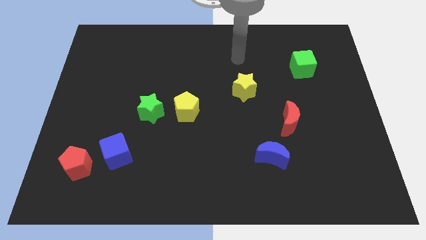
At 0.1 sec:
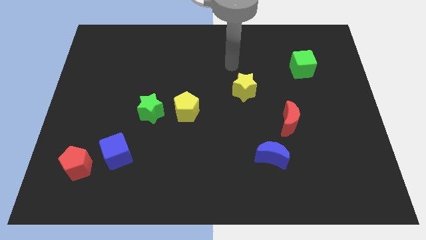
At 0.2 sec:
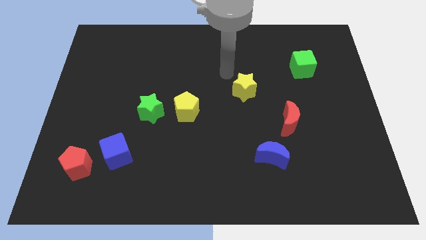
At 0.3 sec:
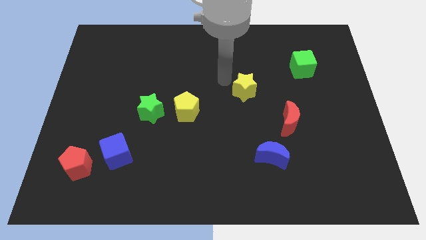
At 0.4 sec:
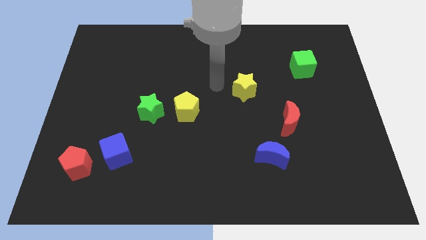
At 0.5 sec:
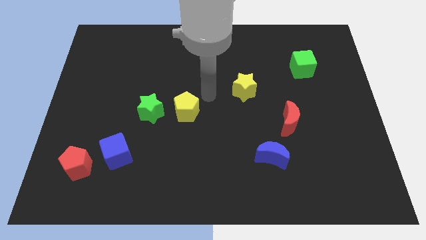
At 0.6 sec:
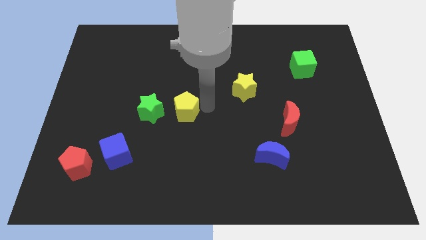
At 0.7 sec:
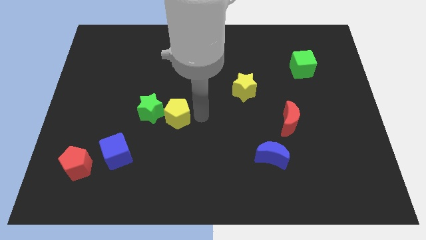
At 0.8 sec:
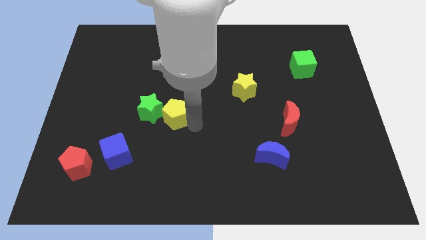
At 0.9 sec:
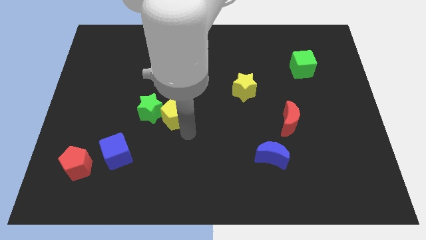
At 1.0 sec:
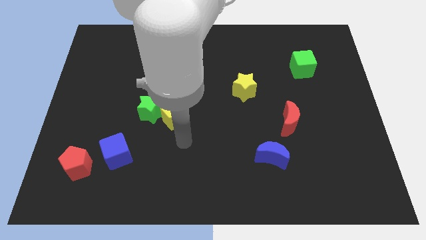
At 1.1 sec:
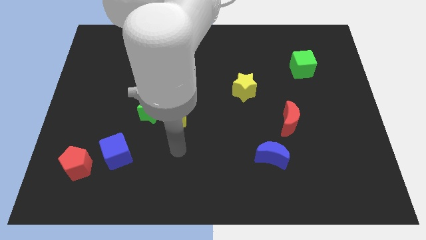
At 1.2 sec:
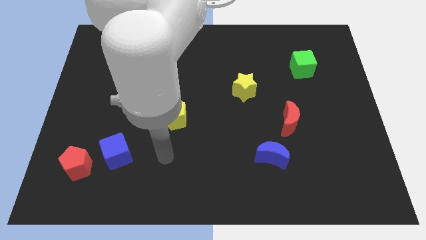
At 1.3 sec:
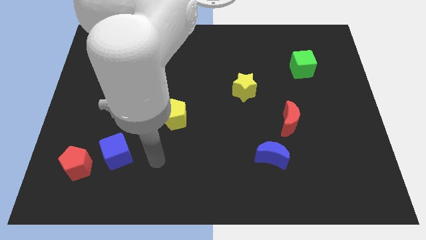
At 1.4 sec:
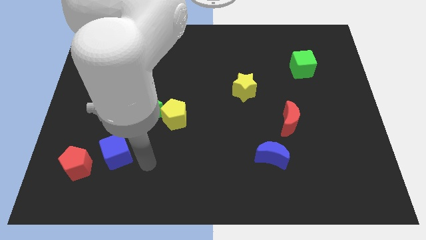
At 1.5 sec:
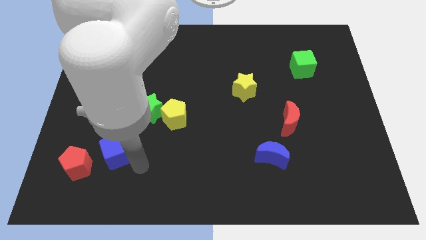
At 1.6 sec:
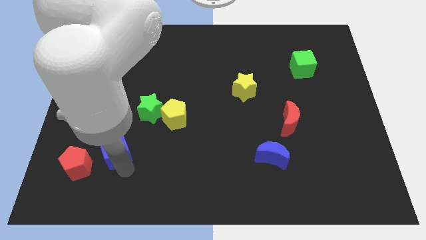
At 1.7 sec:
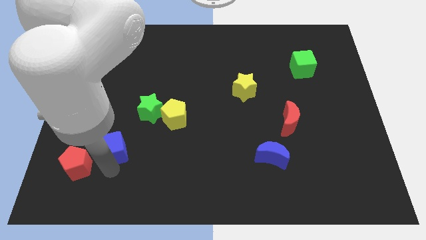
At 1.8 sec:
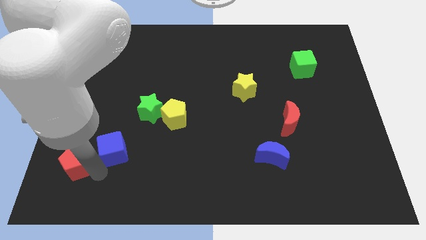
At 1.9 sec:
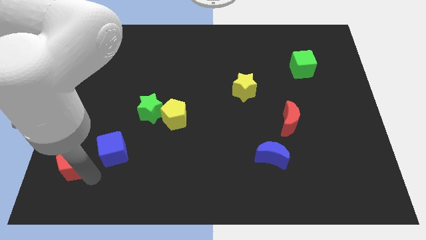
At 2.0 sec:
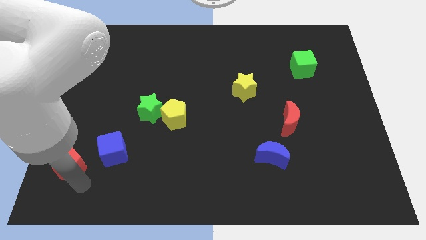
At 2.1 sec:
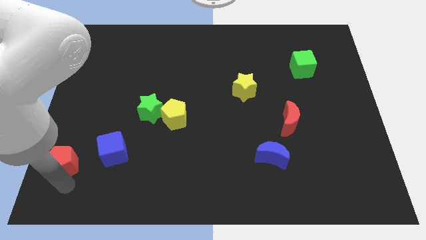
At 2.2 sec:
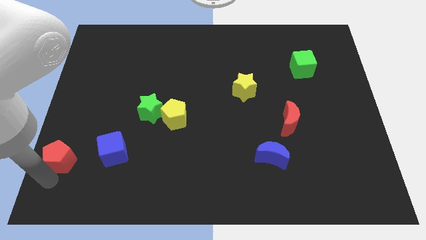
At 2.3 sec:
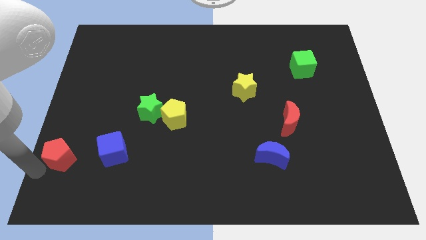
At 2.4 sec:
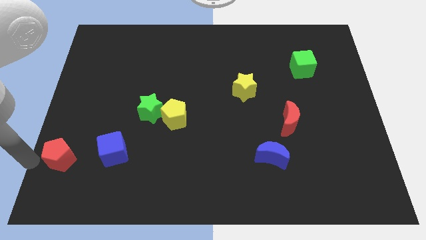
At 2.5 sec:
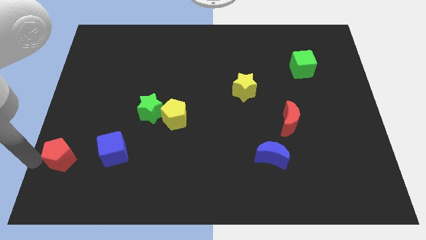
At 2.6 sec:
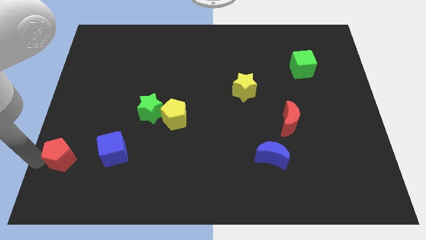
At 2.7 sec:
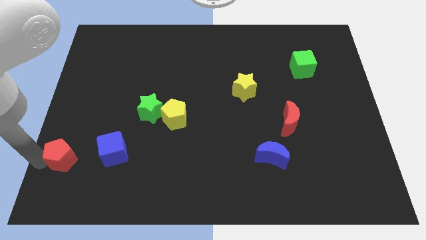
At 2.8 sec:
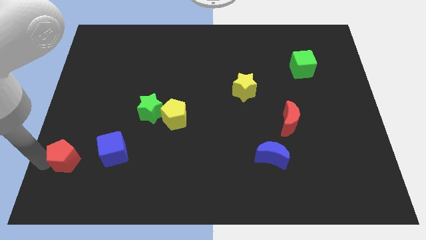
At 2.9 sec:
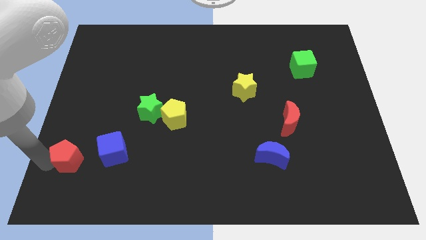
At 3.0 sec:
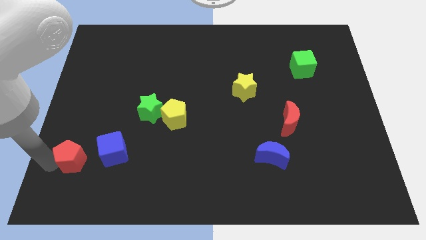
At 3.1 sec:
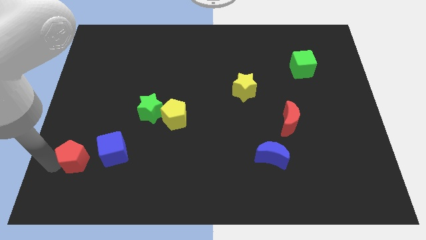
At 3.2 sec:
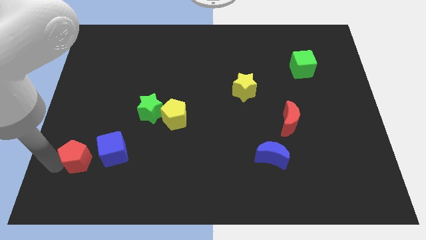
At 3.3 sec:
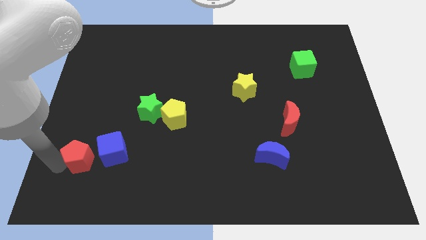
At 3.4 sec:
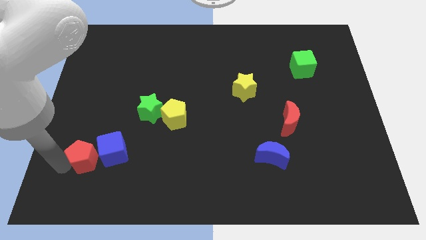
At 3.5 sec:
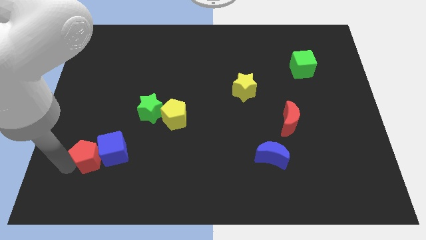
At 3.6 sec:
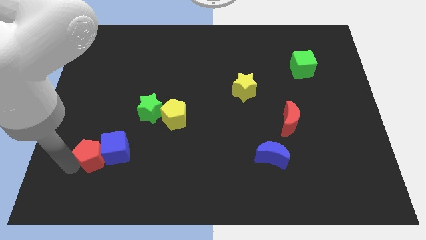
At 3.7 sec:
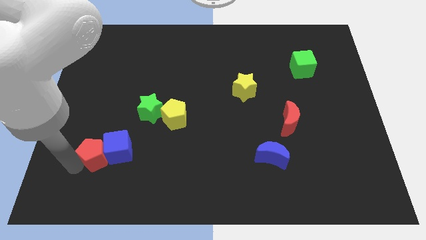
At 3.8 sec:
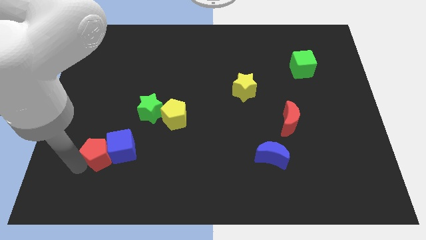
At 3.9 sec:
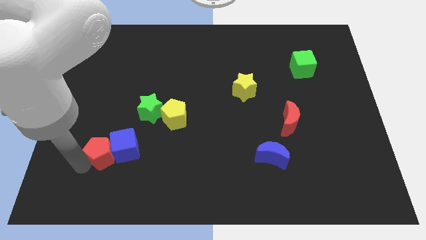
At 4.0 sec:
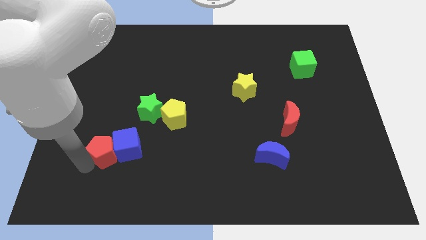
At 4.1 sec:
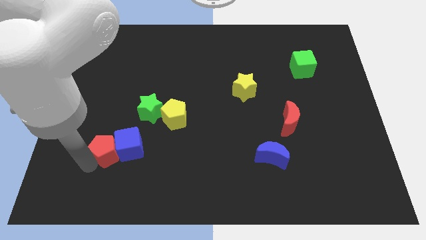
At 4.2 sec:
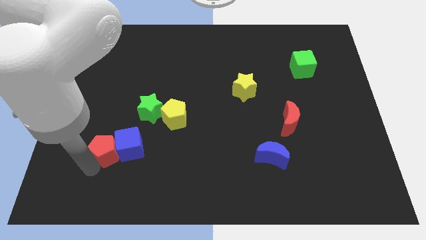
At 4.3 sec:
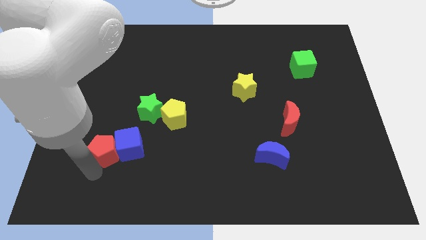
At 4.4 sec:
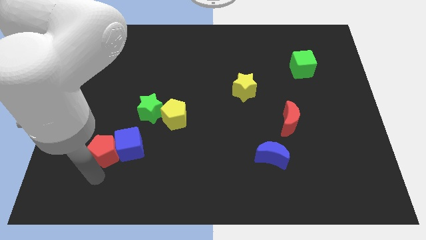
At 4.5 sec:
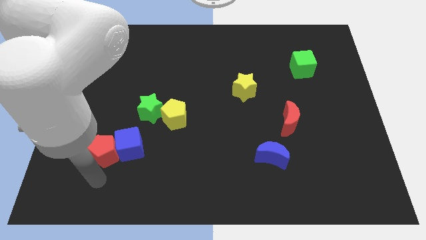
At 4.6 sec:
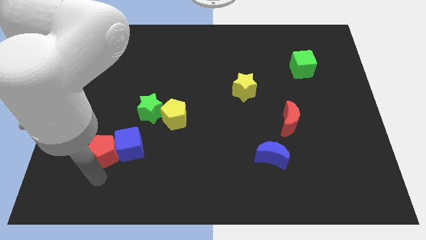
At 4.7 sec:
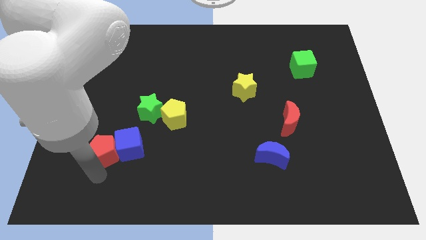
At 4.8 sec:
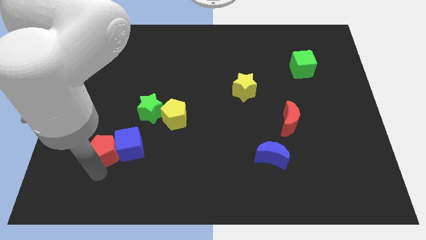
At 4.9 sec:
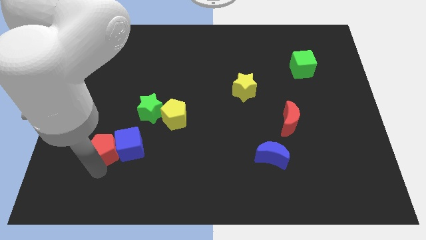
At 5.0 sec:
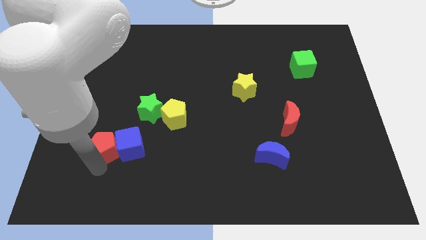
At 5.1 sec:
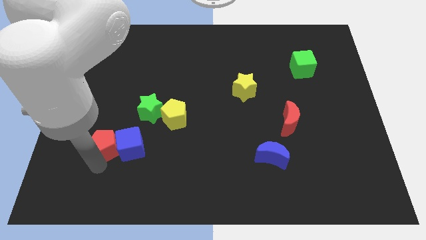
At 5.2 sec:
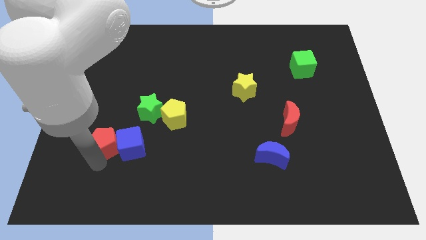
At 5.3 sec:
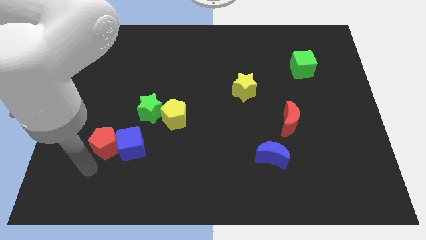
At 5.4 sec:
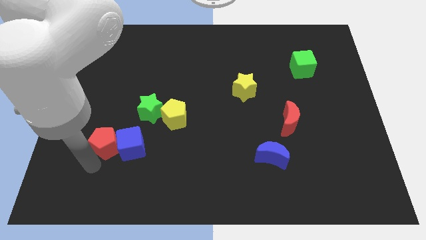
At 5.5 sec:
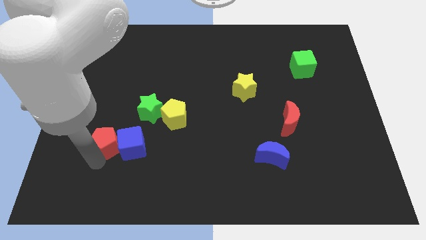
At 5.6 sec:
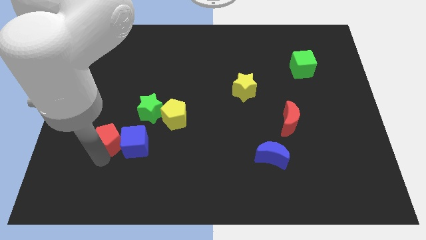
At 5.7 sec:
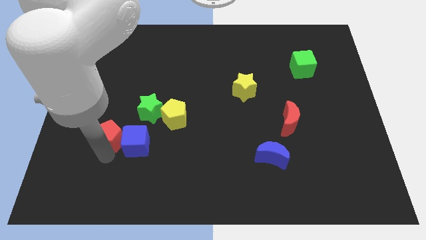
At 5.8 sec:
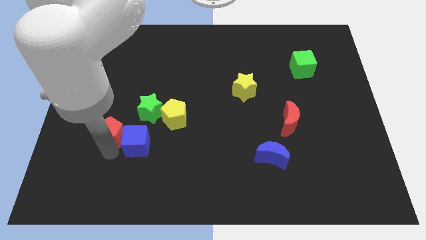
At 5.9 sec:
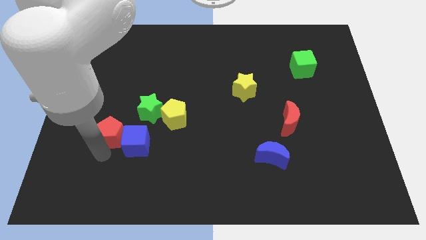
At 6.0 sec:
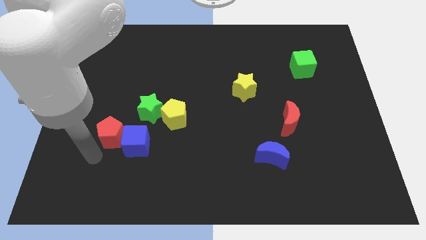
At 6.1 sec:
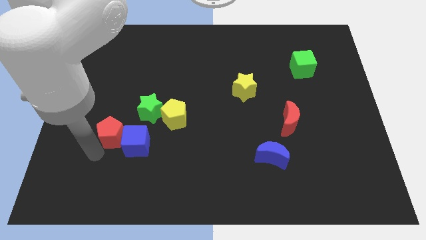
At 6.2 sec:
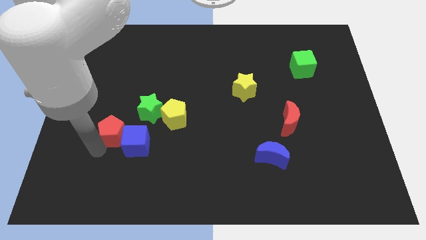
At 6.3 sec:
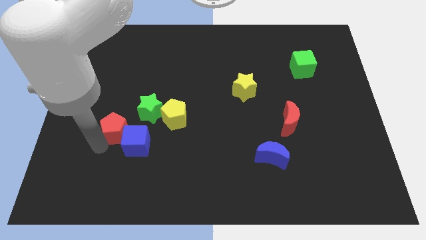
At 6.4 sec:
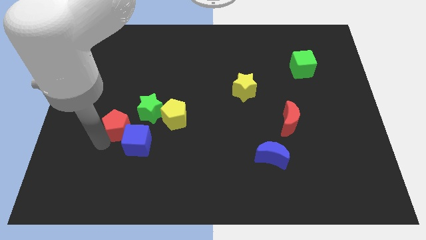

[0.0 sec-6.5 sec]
push the red pentagon to the top of the blue cube

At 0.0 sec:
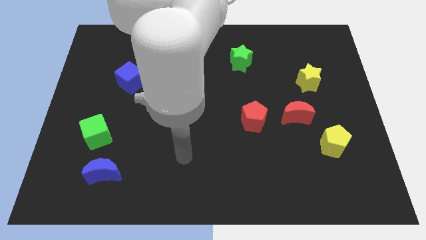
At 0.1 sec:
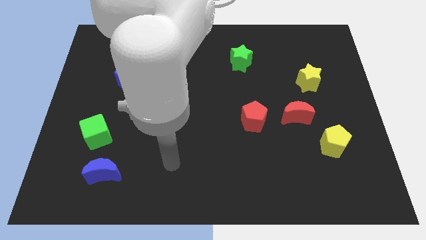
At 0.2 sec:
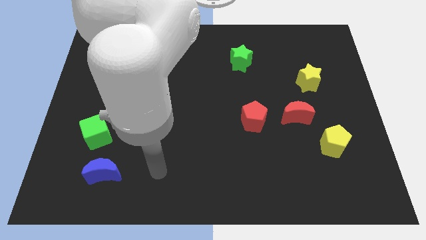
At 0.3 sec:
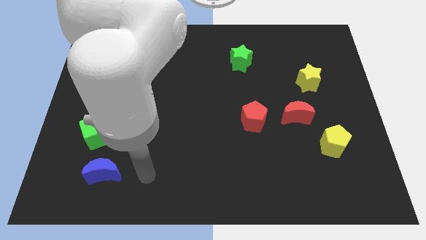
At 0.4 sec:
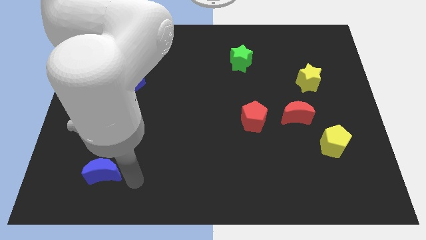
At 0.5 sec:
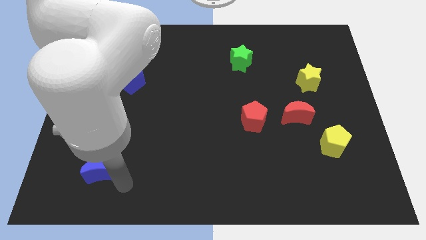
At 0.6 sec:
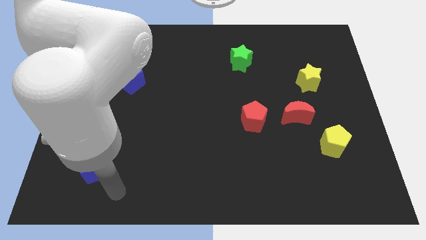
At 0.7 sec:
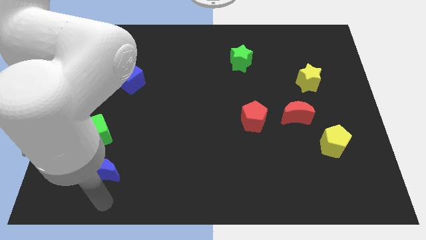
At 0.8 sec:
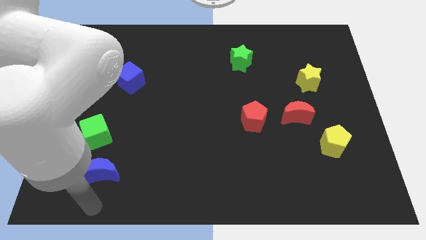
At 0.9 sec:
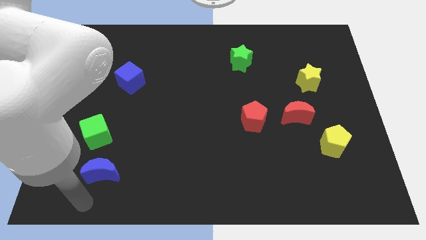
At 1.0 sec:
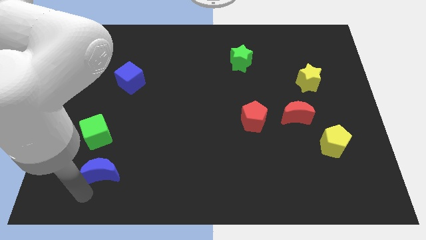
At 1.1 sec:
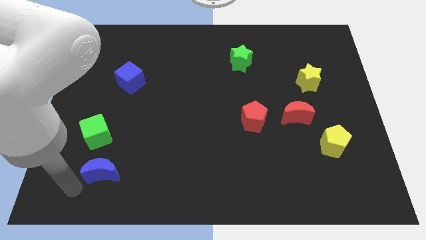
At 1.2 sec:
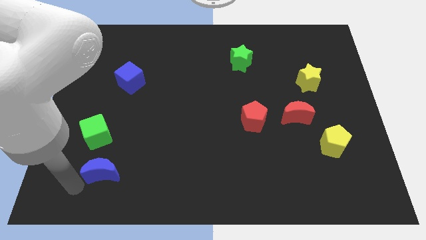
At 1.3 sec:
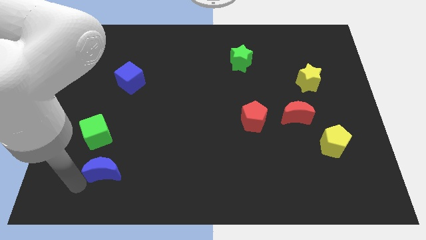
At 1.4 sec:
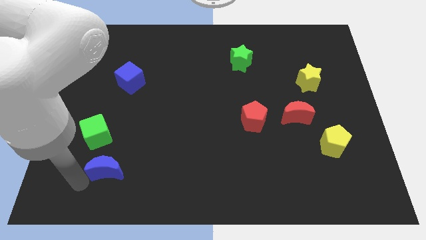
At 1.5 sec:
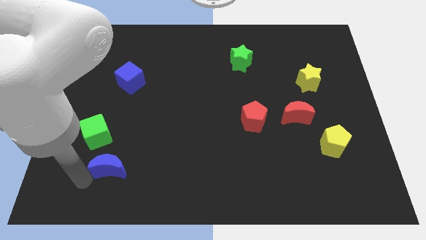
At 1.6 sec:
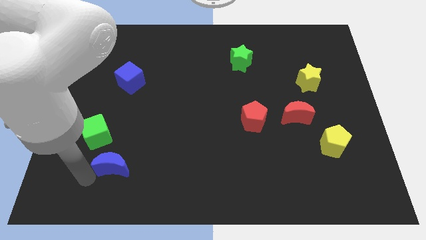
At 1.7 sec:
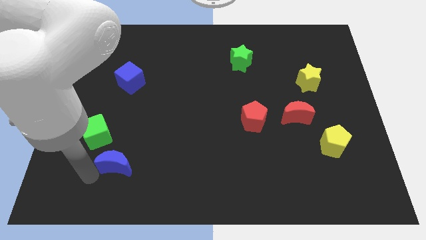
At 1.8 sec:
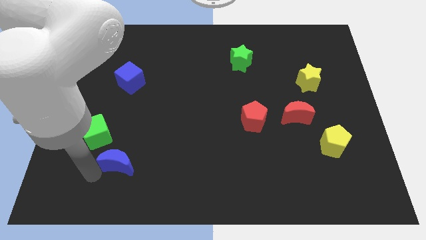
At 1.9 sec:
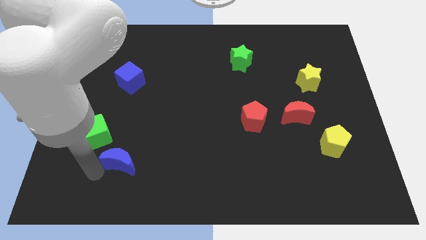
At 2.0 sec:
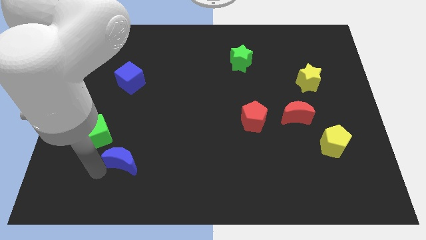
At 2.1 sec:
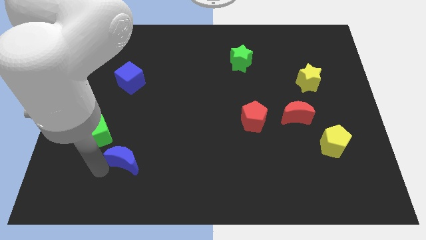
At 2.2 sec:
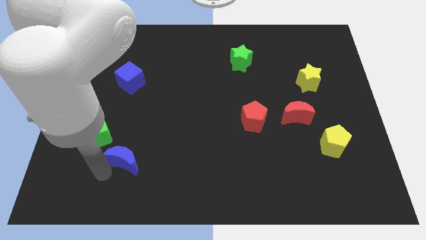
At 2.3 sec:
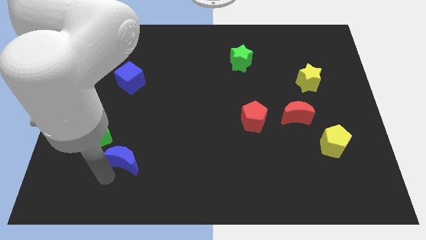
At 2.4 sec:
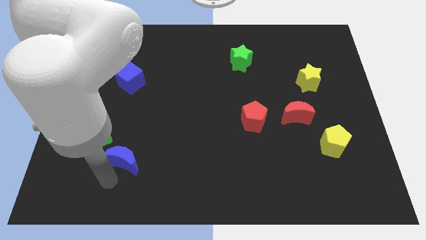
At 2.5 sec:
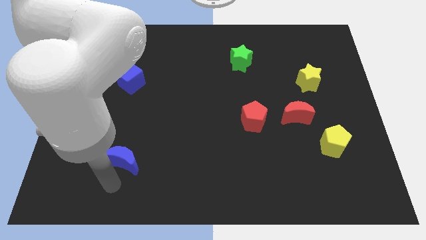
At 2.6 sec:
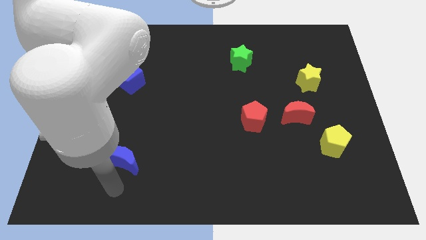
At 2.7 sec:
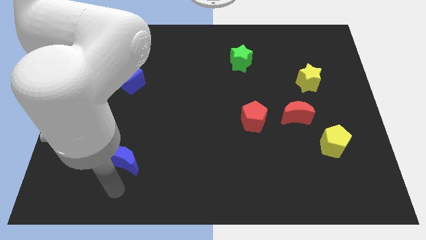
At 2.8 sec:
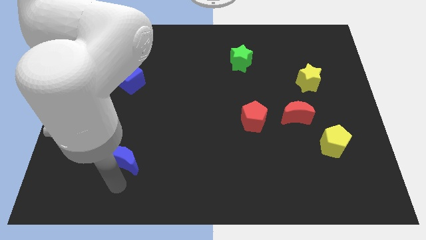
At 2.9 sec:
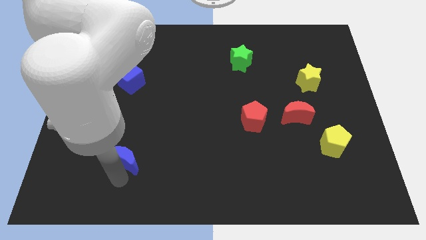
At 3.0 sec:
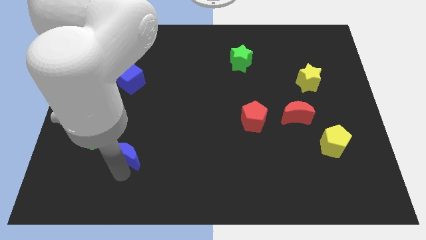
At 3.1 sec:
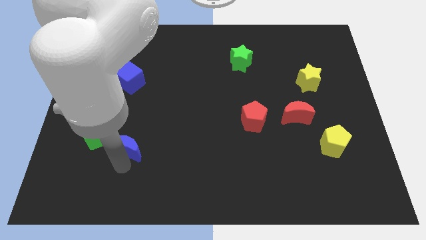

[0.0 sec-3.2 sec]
put the blue moon to the right of the green cube
